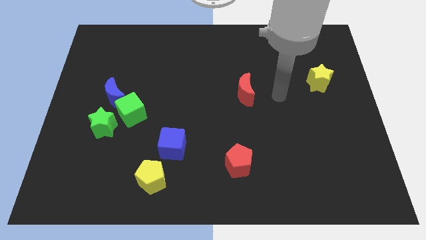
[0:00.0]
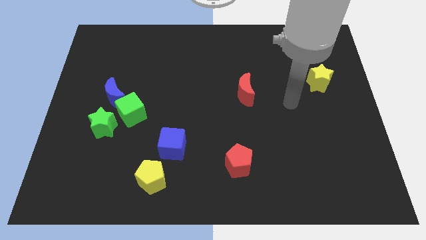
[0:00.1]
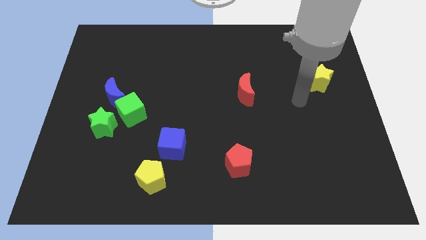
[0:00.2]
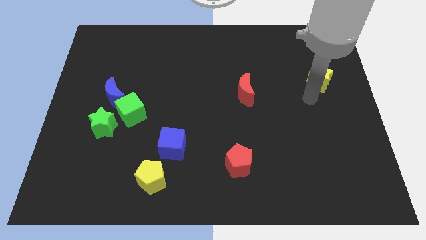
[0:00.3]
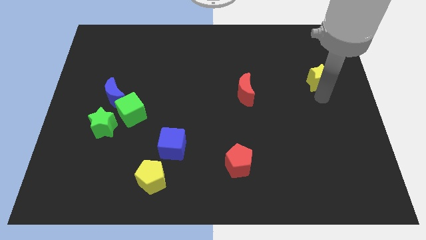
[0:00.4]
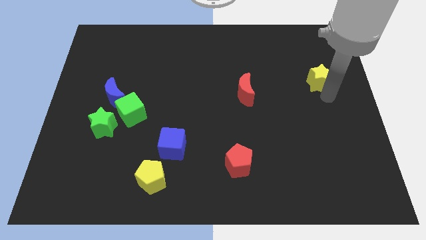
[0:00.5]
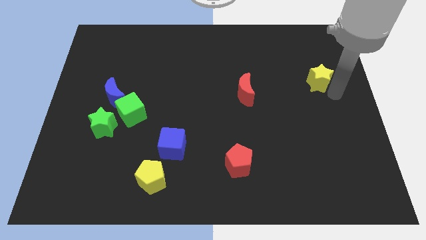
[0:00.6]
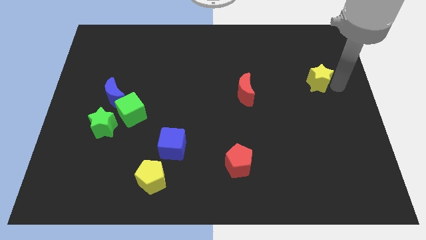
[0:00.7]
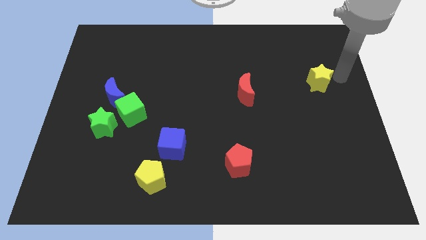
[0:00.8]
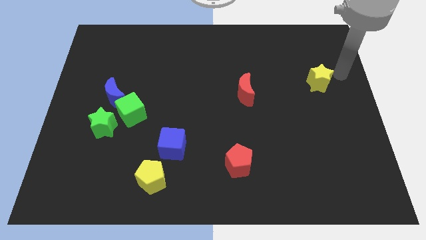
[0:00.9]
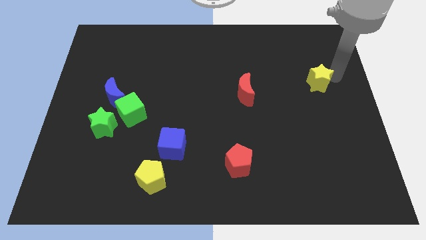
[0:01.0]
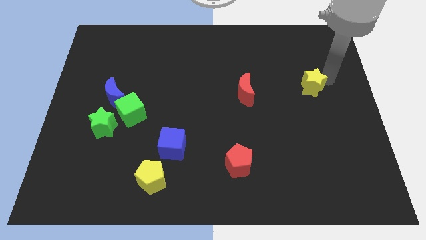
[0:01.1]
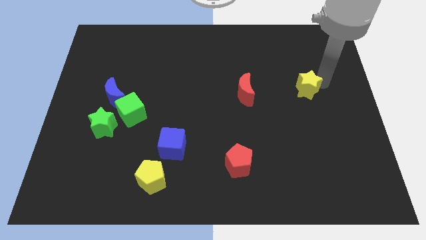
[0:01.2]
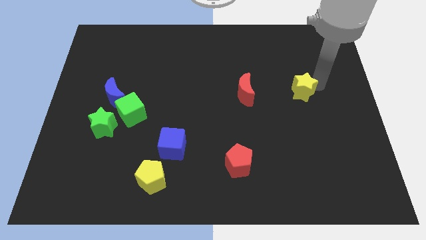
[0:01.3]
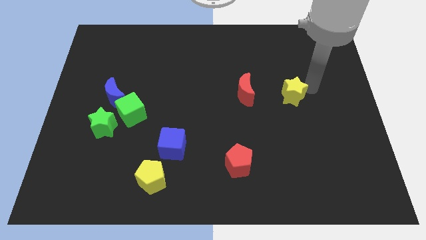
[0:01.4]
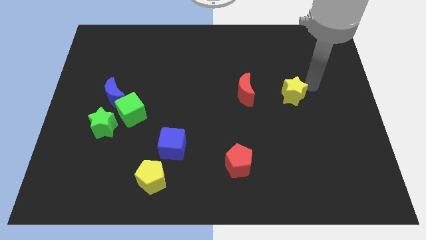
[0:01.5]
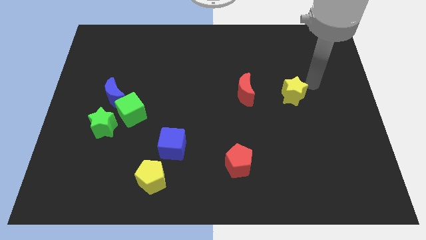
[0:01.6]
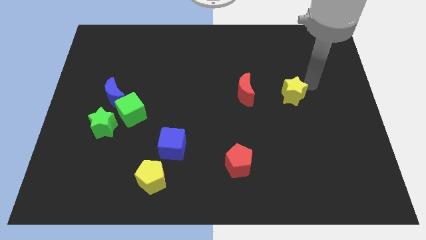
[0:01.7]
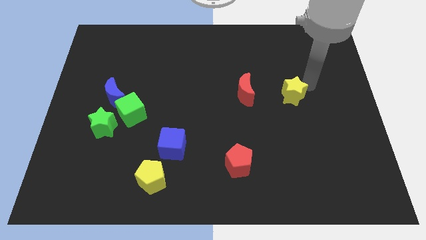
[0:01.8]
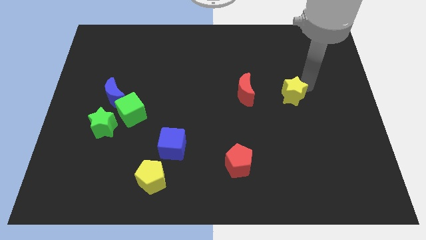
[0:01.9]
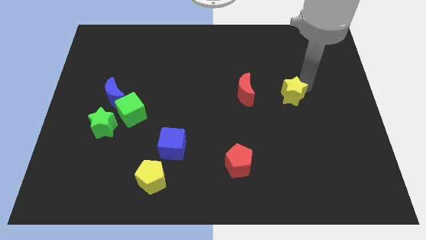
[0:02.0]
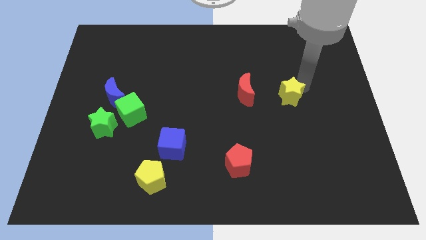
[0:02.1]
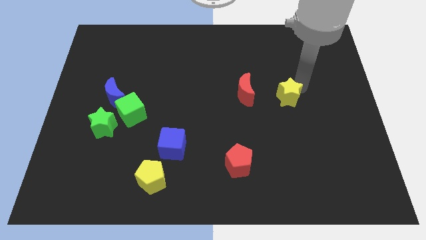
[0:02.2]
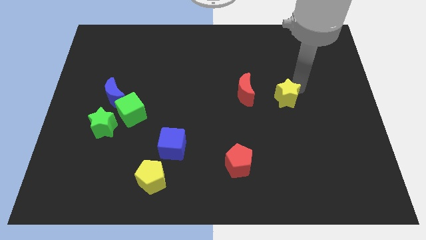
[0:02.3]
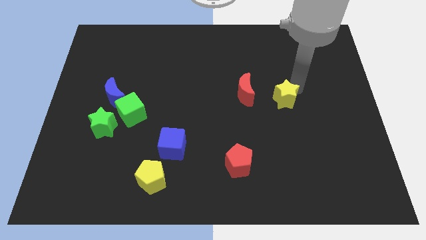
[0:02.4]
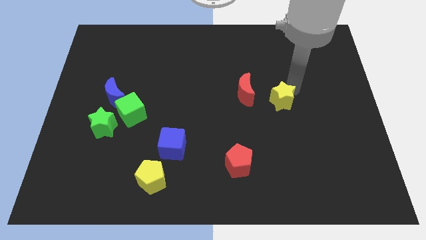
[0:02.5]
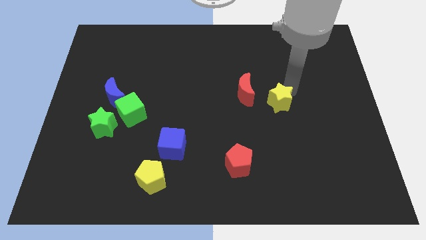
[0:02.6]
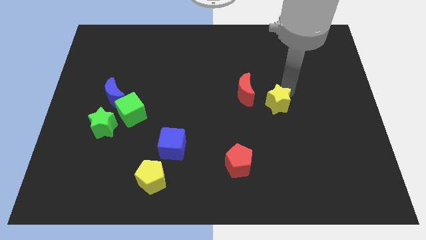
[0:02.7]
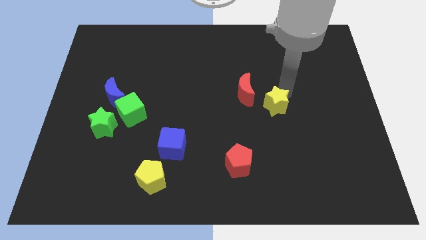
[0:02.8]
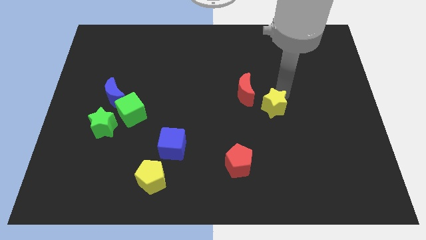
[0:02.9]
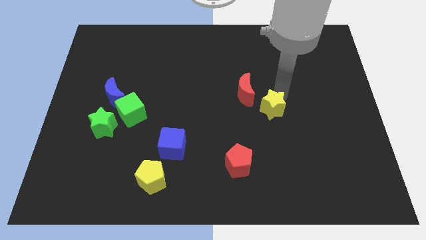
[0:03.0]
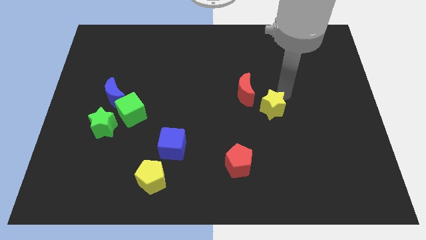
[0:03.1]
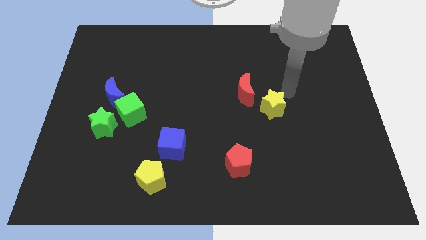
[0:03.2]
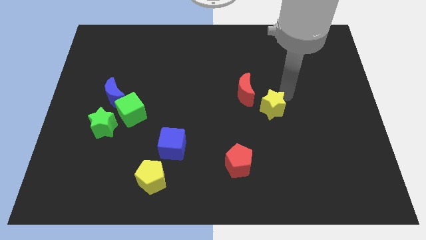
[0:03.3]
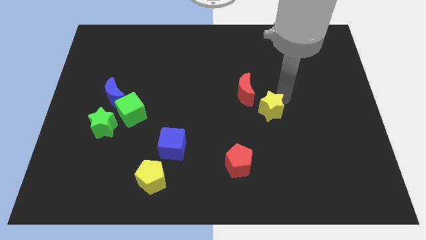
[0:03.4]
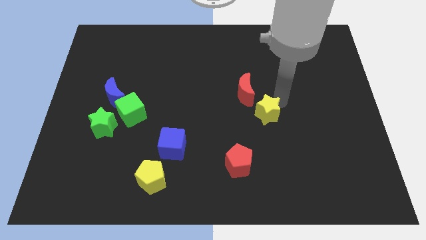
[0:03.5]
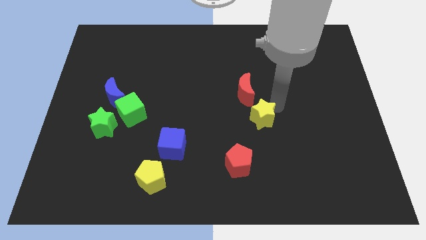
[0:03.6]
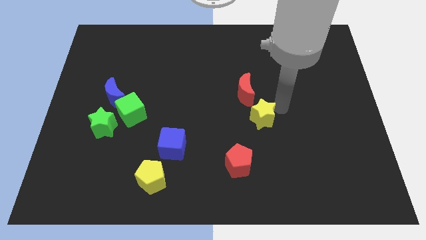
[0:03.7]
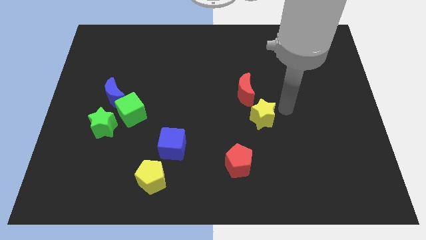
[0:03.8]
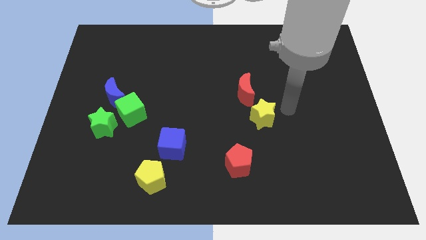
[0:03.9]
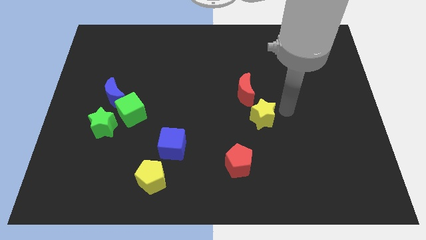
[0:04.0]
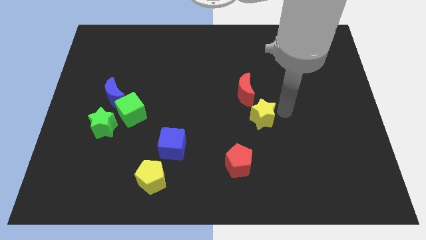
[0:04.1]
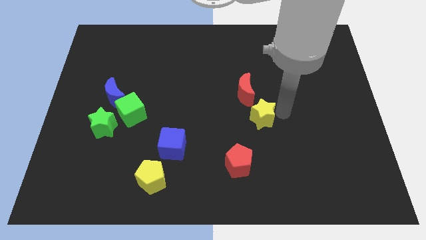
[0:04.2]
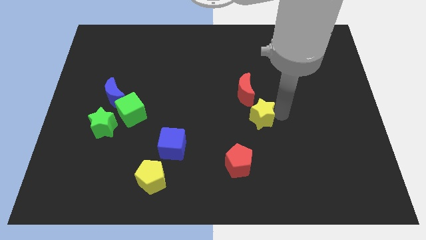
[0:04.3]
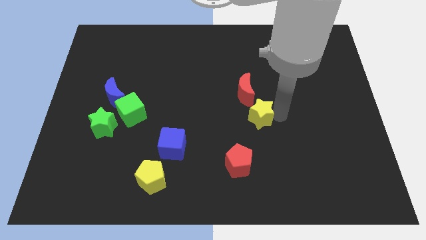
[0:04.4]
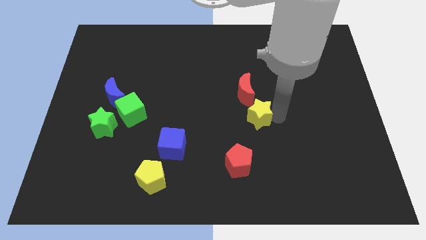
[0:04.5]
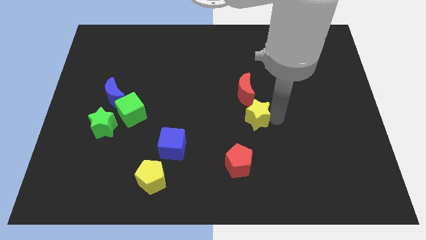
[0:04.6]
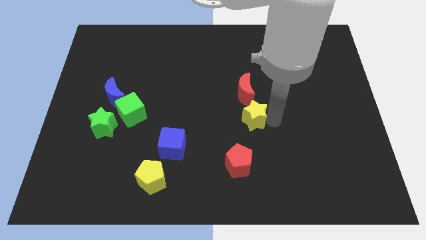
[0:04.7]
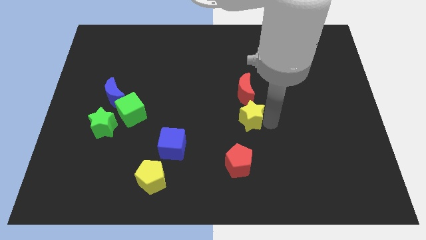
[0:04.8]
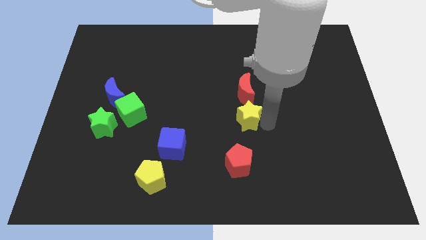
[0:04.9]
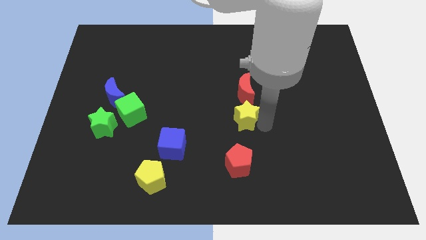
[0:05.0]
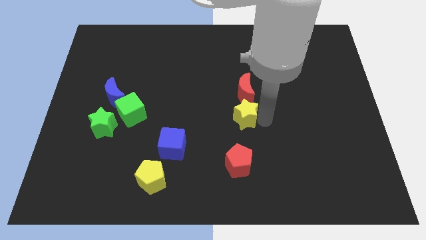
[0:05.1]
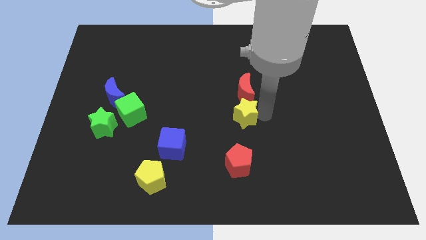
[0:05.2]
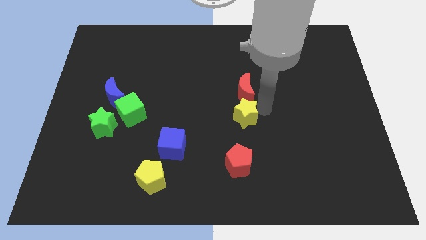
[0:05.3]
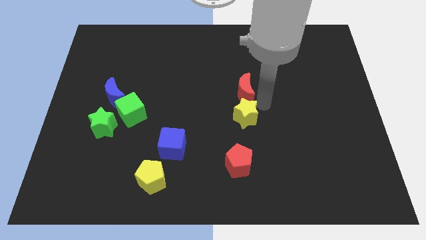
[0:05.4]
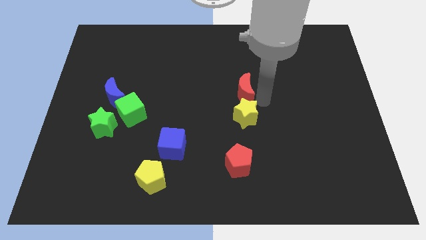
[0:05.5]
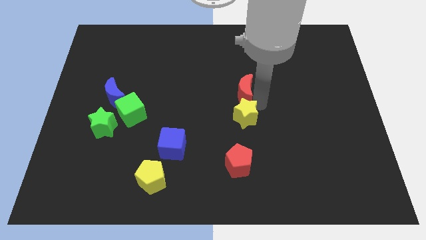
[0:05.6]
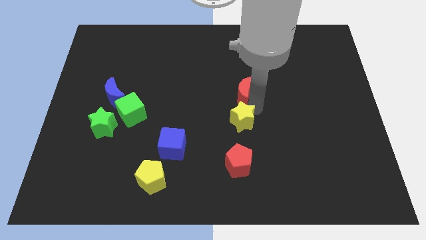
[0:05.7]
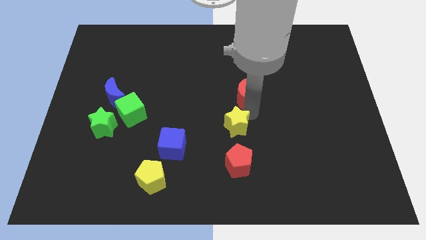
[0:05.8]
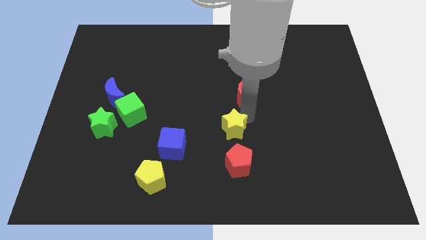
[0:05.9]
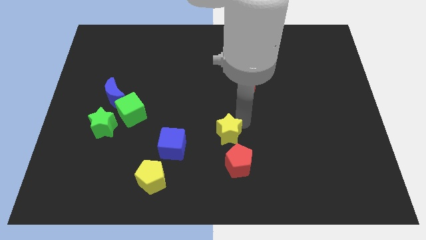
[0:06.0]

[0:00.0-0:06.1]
slide the yellow star to the top left side of the red pentagon

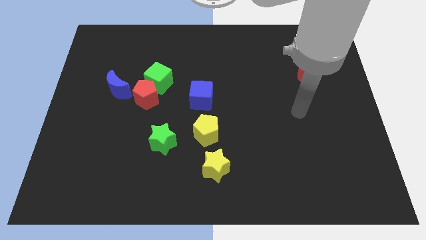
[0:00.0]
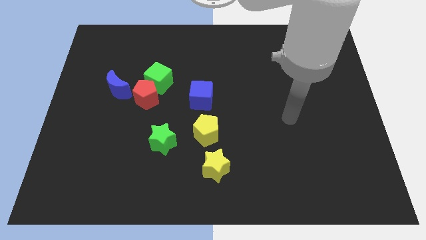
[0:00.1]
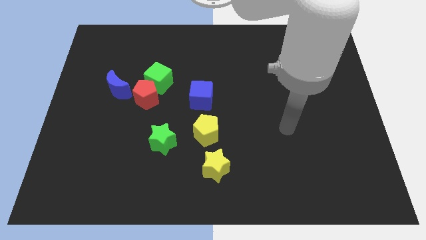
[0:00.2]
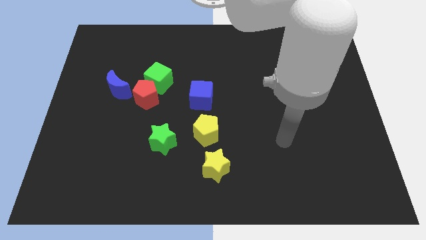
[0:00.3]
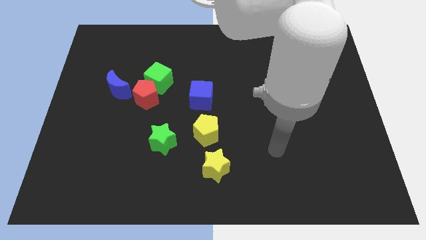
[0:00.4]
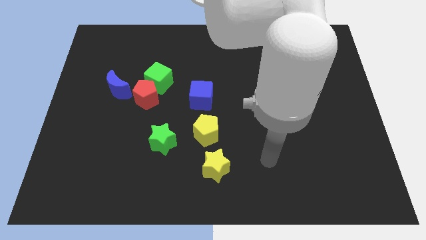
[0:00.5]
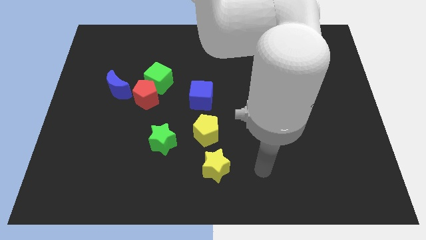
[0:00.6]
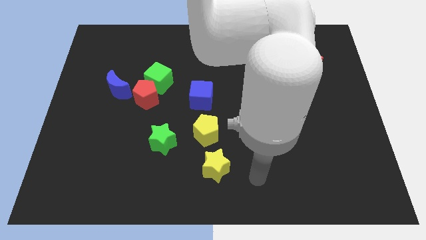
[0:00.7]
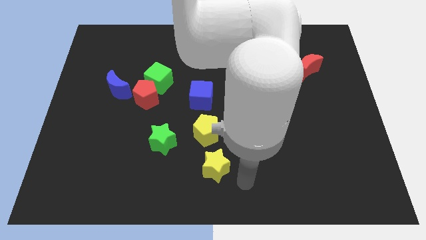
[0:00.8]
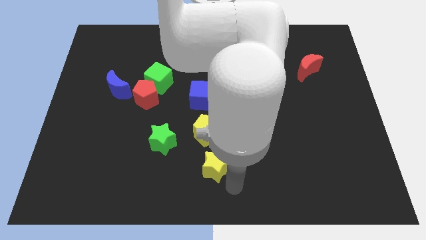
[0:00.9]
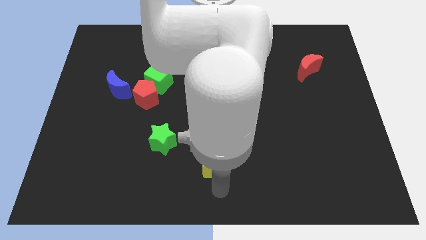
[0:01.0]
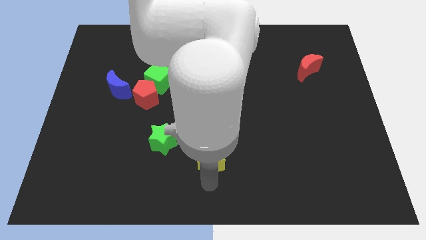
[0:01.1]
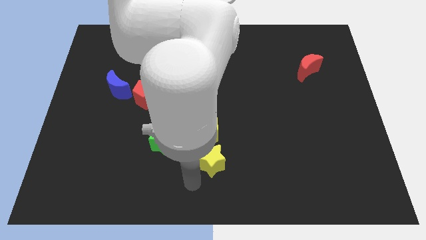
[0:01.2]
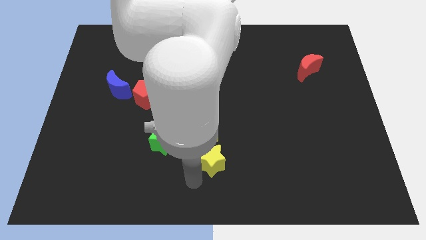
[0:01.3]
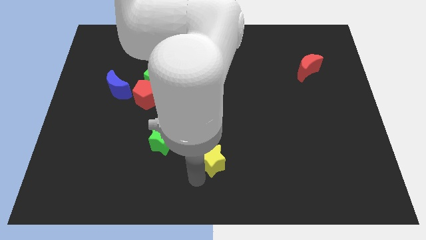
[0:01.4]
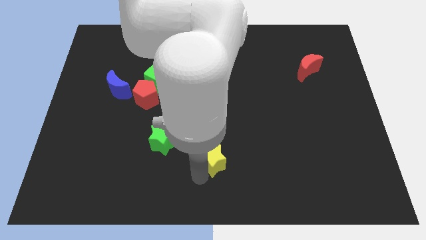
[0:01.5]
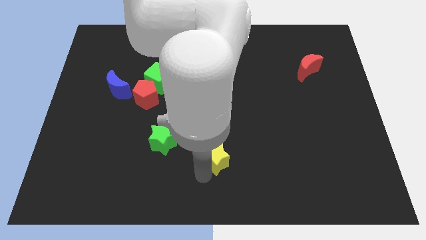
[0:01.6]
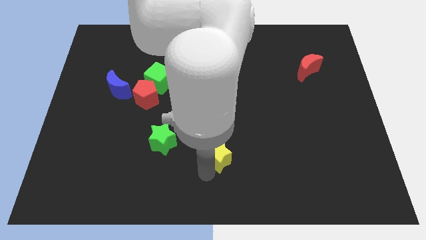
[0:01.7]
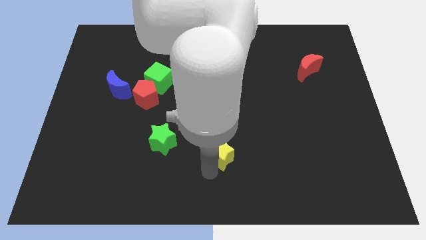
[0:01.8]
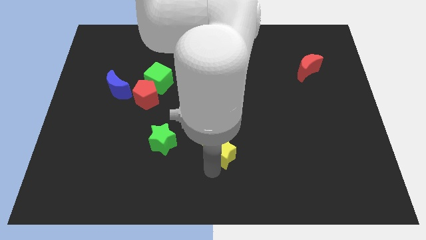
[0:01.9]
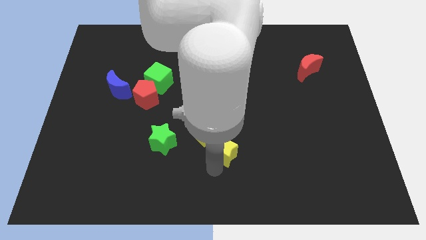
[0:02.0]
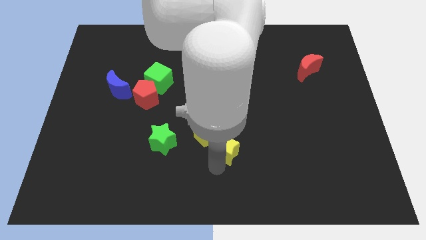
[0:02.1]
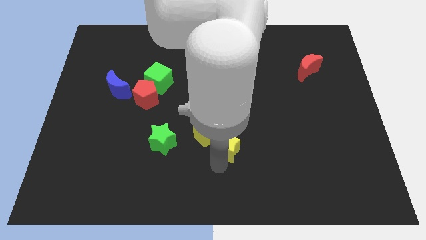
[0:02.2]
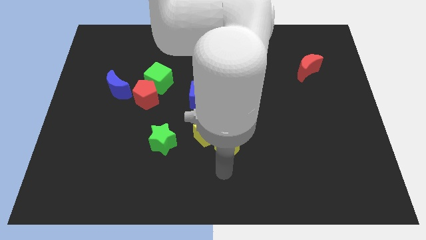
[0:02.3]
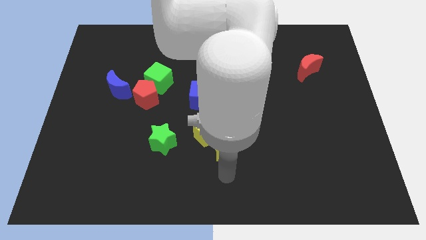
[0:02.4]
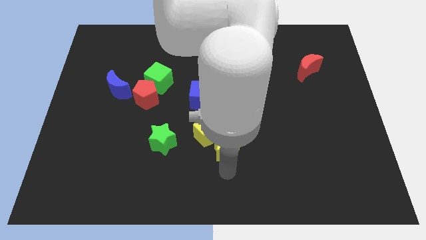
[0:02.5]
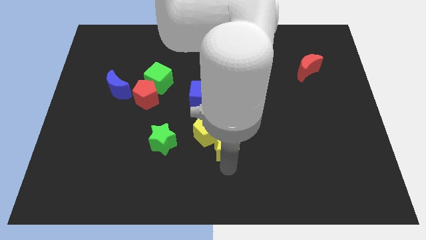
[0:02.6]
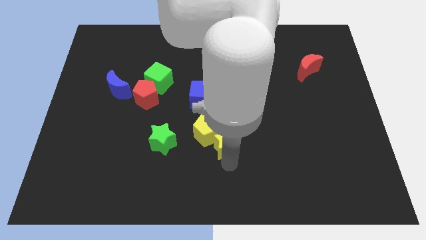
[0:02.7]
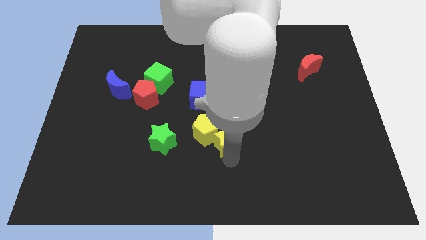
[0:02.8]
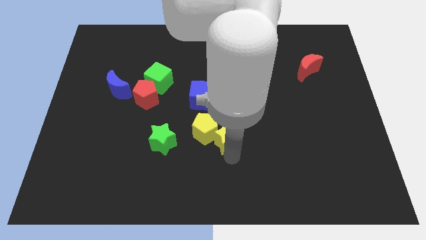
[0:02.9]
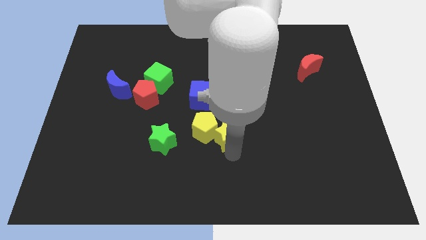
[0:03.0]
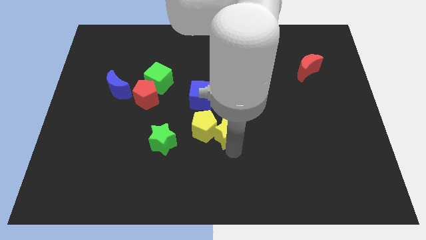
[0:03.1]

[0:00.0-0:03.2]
put the yellow star diagonally down and to the right of the blue cube
